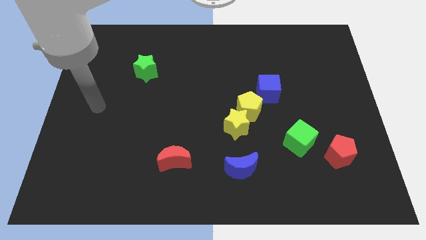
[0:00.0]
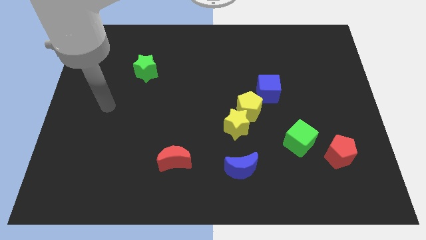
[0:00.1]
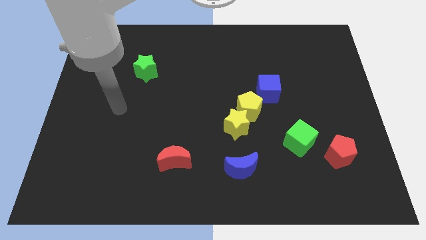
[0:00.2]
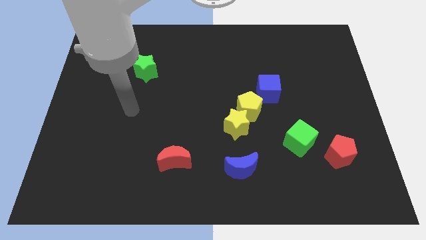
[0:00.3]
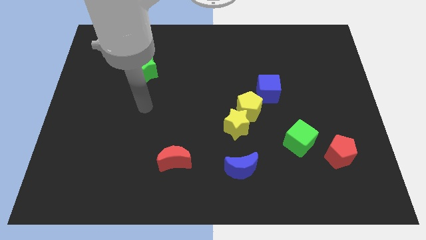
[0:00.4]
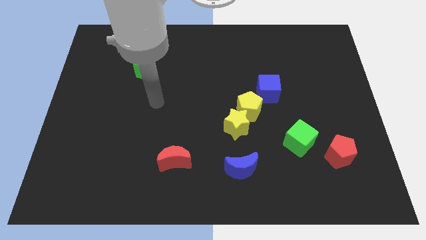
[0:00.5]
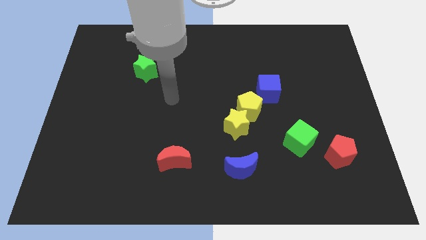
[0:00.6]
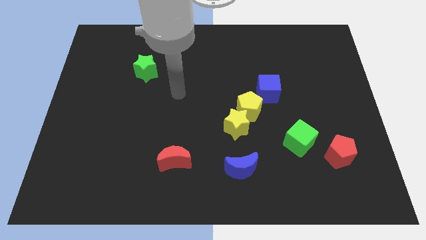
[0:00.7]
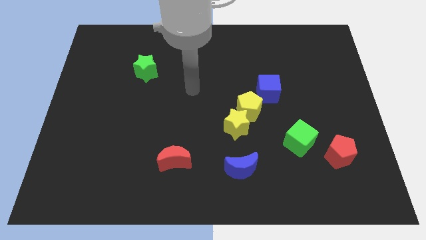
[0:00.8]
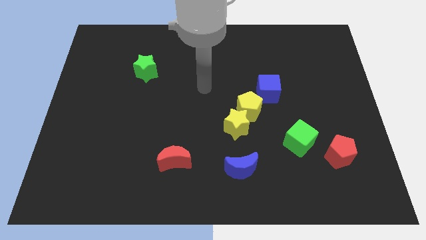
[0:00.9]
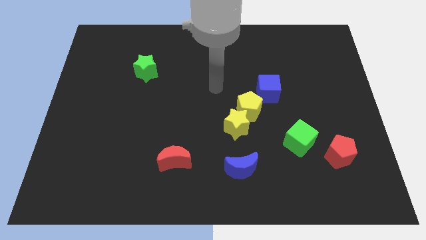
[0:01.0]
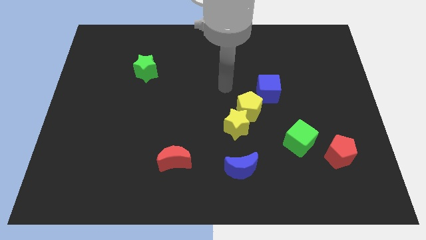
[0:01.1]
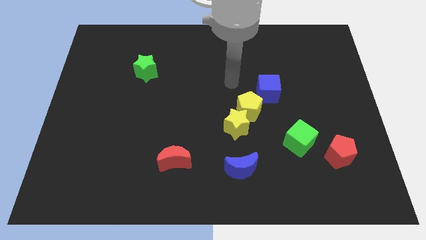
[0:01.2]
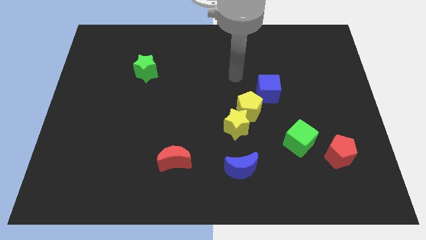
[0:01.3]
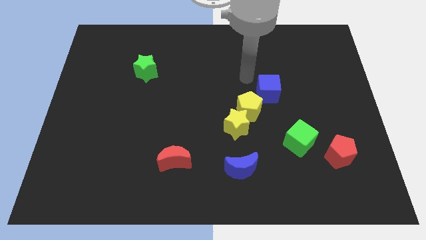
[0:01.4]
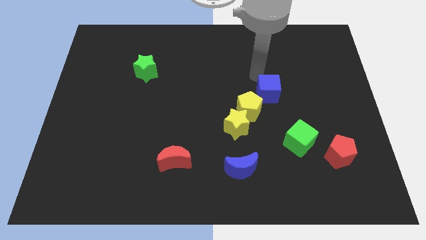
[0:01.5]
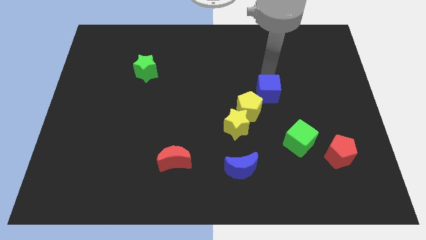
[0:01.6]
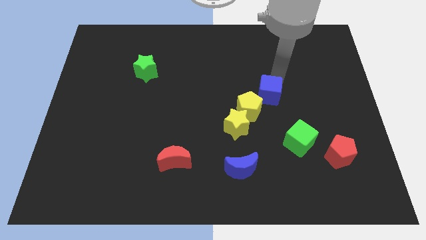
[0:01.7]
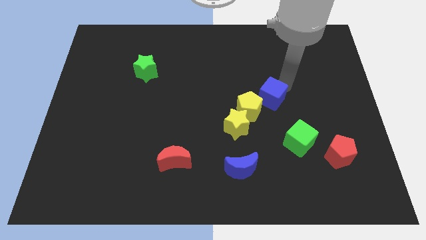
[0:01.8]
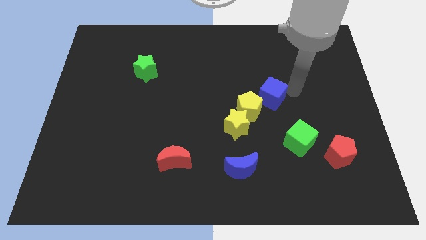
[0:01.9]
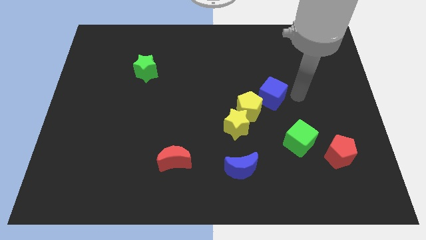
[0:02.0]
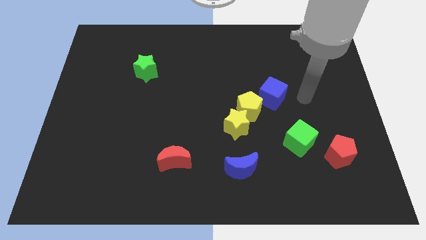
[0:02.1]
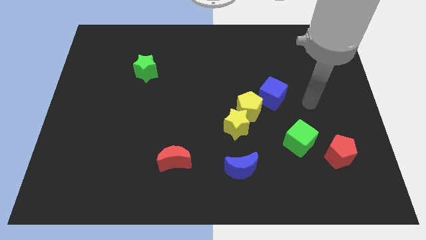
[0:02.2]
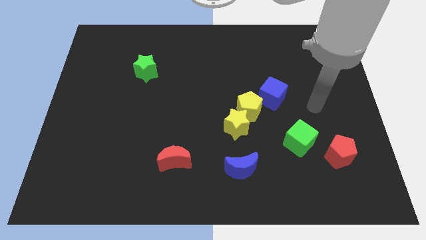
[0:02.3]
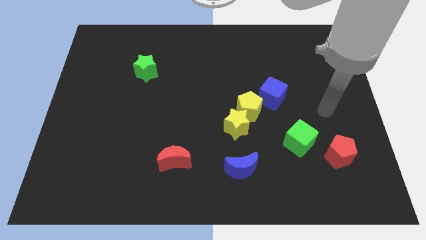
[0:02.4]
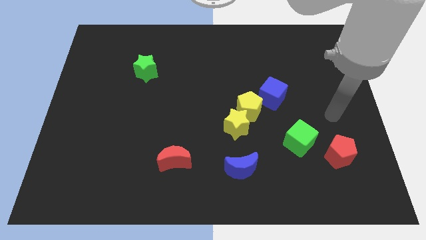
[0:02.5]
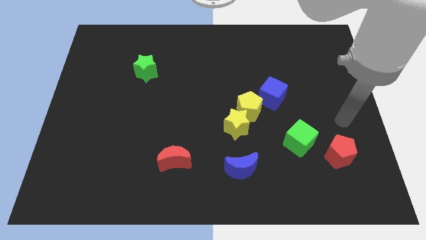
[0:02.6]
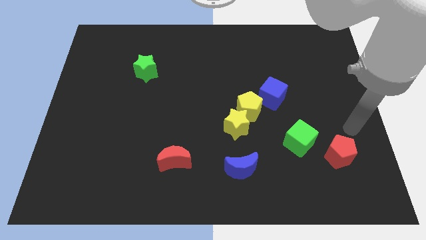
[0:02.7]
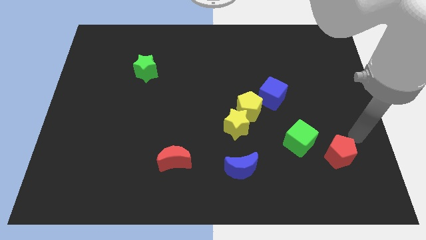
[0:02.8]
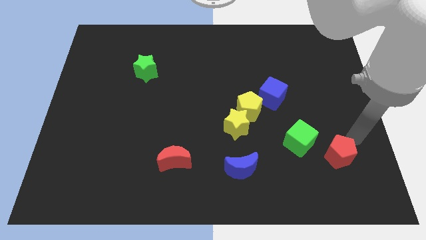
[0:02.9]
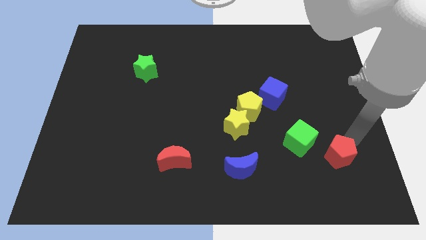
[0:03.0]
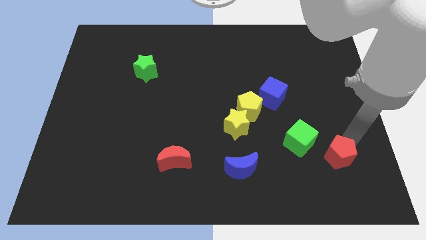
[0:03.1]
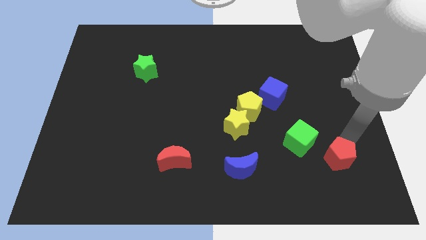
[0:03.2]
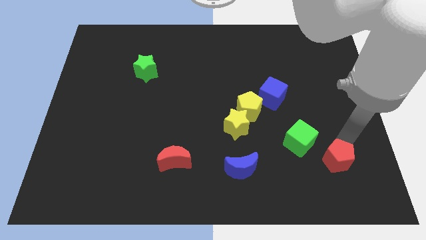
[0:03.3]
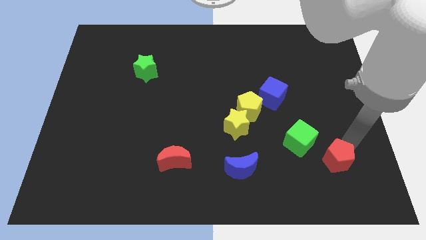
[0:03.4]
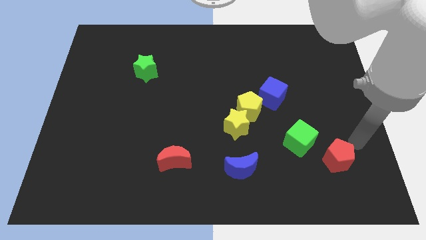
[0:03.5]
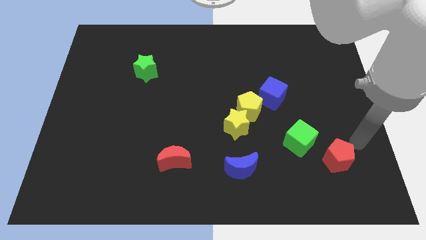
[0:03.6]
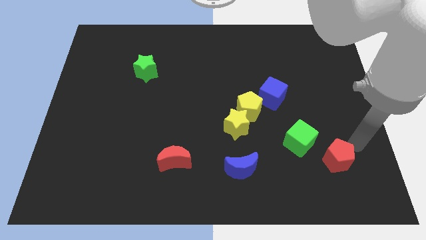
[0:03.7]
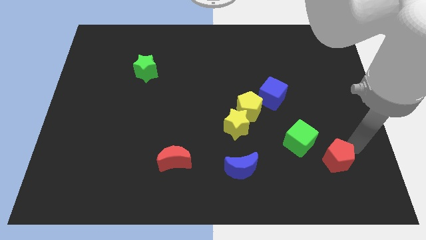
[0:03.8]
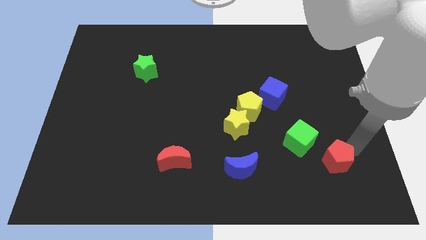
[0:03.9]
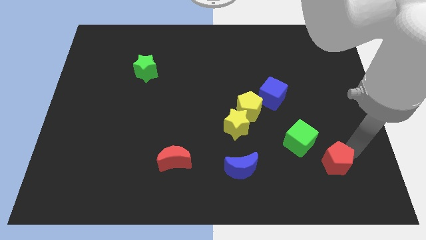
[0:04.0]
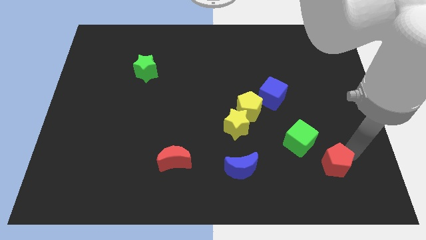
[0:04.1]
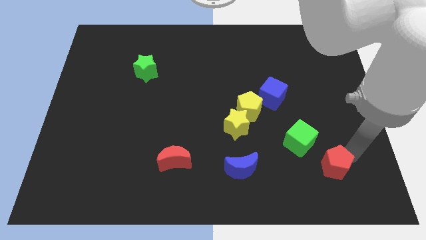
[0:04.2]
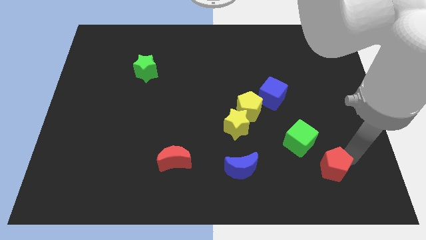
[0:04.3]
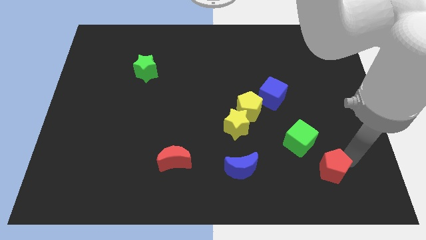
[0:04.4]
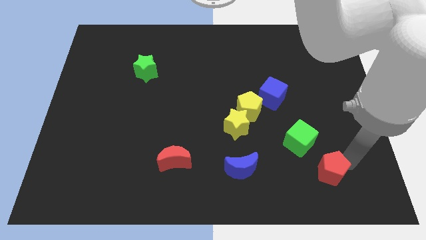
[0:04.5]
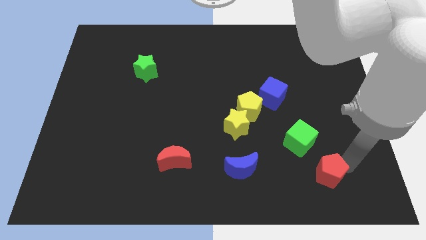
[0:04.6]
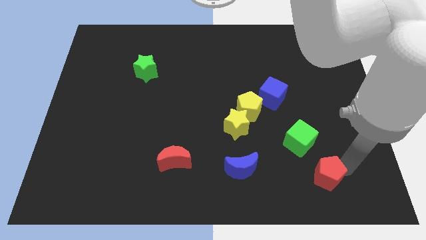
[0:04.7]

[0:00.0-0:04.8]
push the red pentagon below the green cube

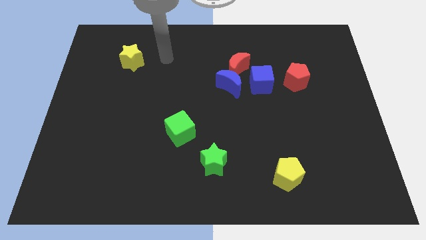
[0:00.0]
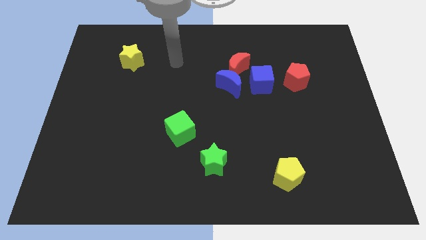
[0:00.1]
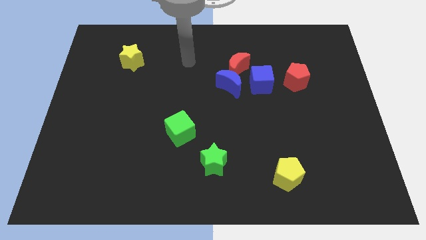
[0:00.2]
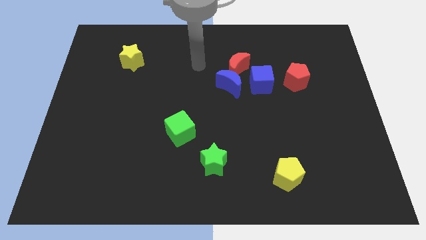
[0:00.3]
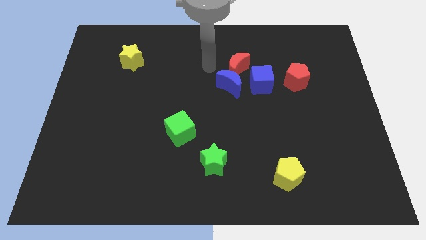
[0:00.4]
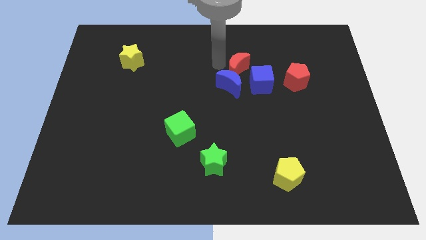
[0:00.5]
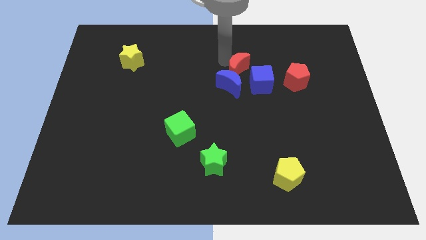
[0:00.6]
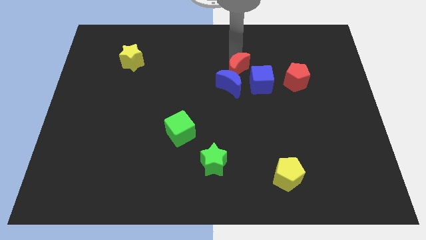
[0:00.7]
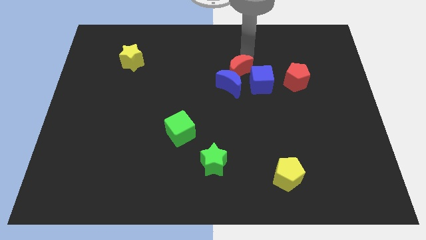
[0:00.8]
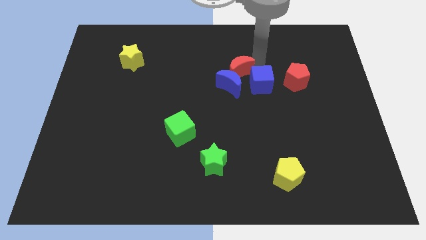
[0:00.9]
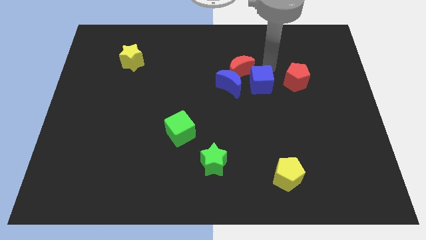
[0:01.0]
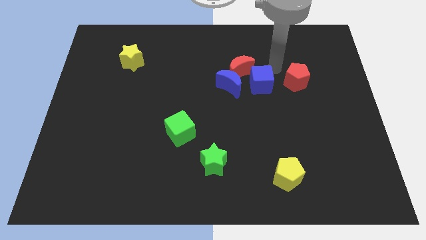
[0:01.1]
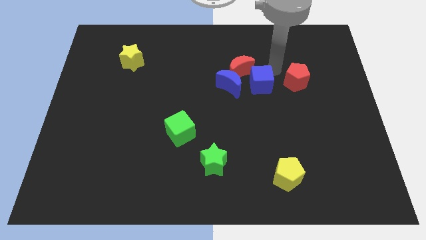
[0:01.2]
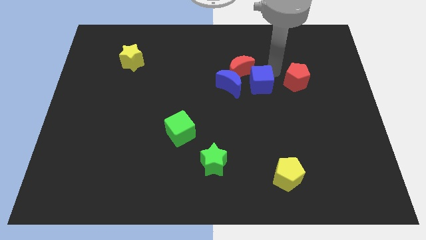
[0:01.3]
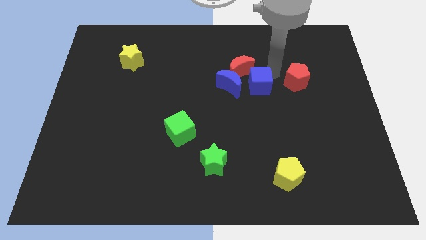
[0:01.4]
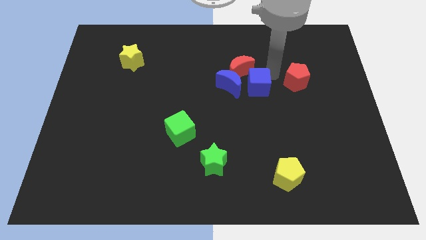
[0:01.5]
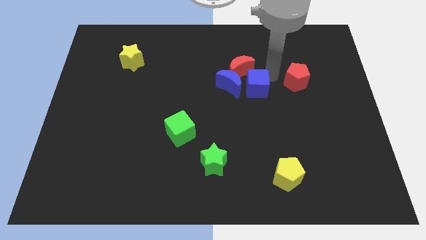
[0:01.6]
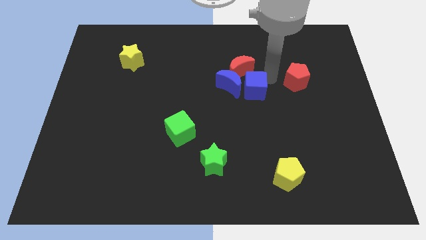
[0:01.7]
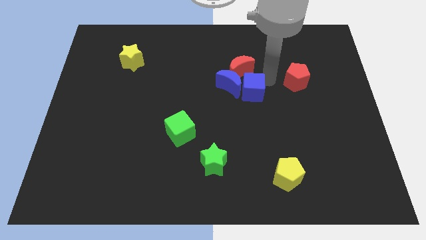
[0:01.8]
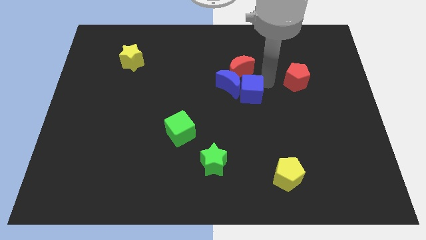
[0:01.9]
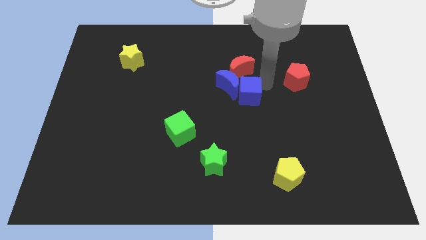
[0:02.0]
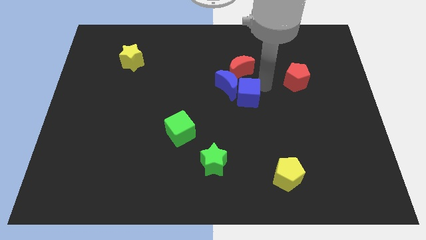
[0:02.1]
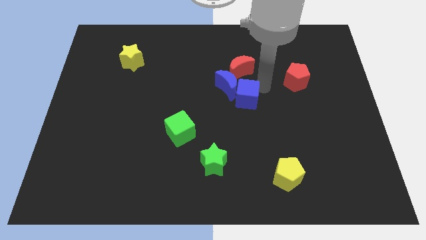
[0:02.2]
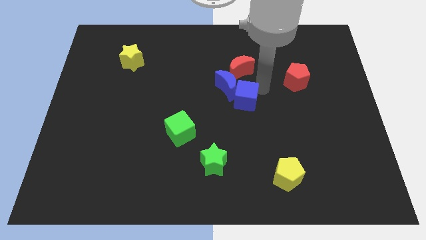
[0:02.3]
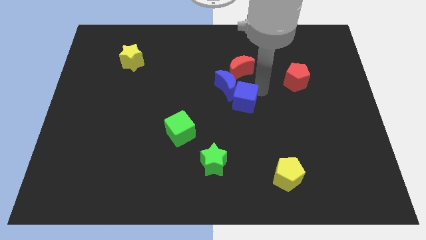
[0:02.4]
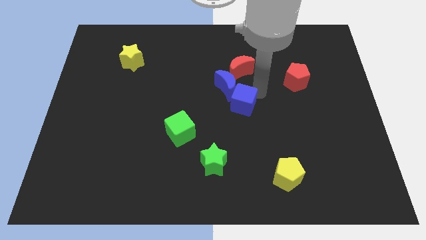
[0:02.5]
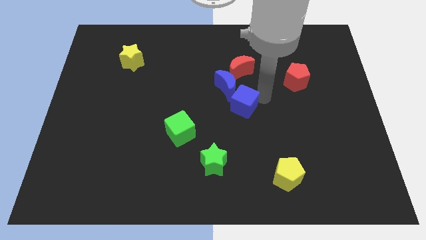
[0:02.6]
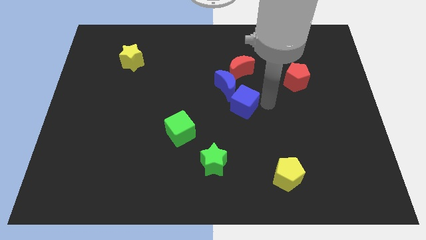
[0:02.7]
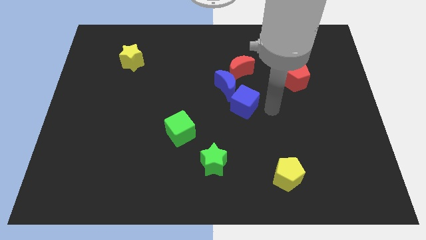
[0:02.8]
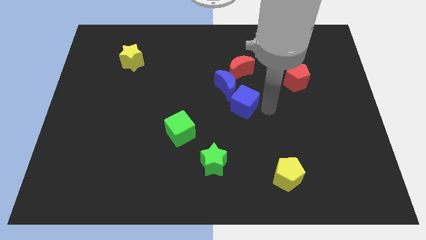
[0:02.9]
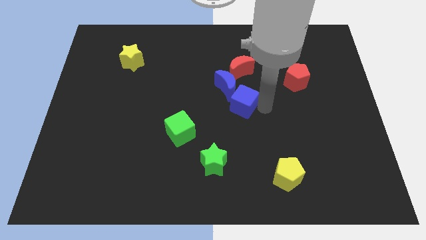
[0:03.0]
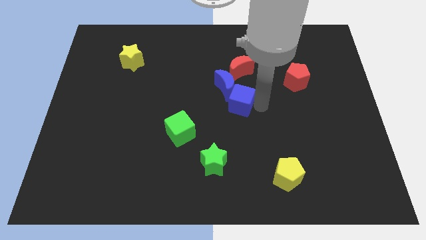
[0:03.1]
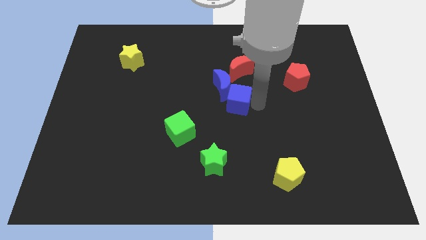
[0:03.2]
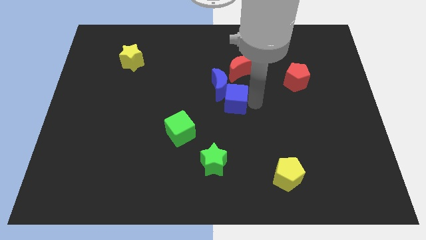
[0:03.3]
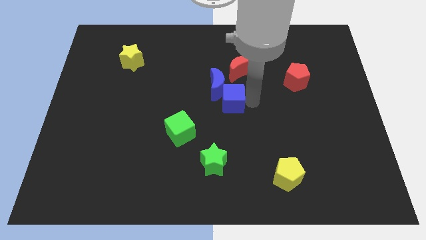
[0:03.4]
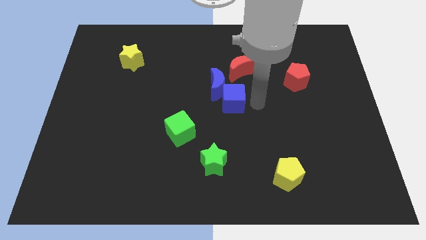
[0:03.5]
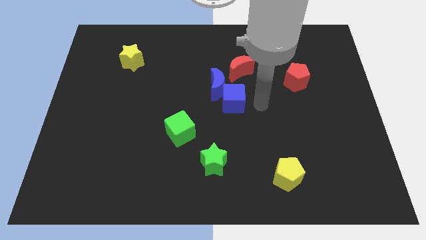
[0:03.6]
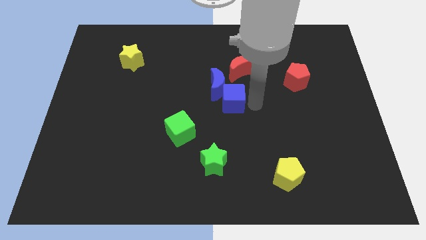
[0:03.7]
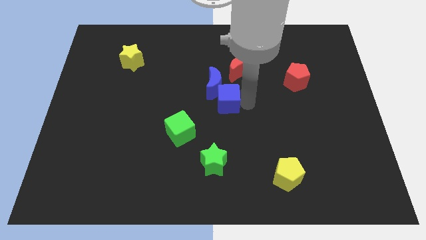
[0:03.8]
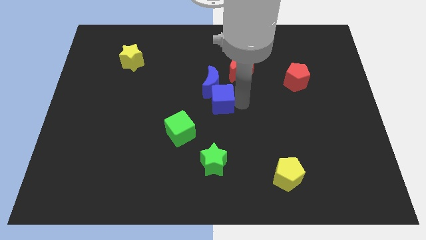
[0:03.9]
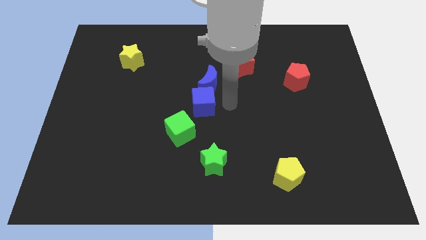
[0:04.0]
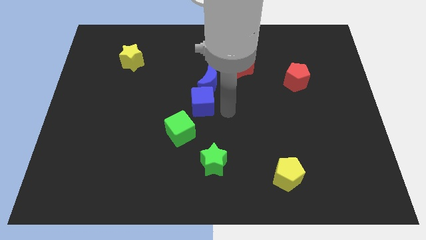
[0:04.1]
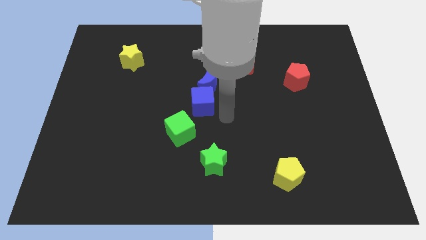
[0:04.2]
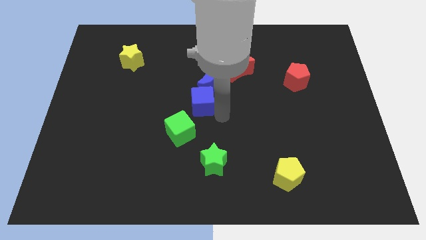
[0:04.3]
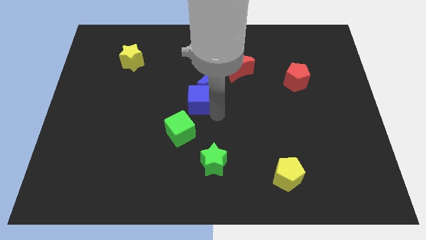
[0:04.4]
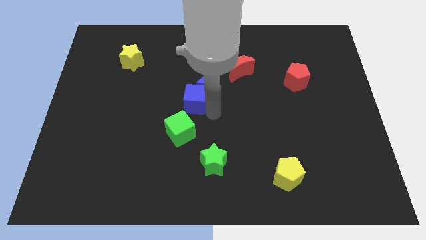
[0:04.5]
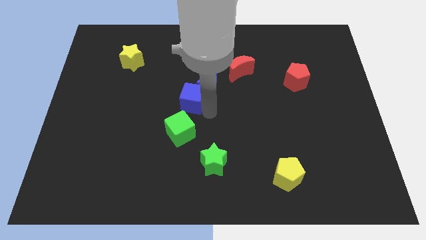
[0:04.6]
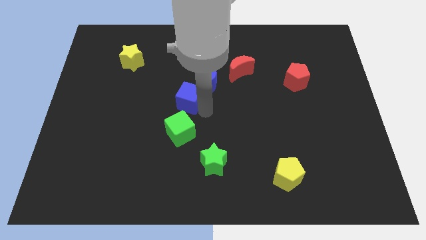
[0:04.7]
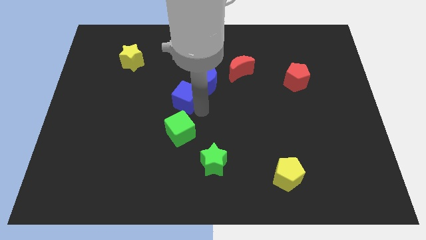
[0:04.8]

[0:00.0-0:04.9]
put the blue cube left of the blue moon
